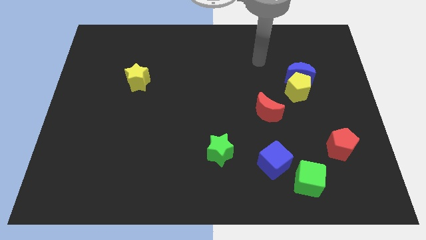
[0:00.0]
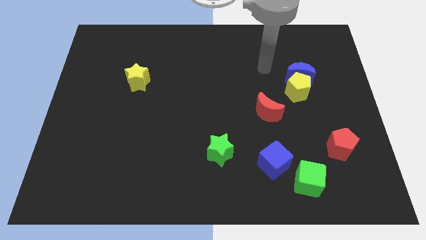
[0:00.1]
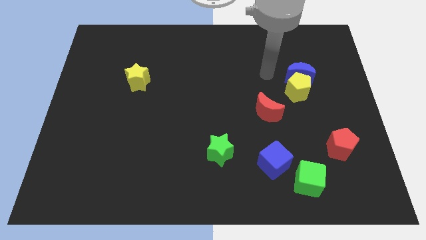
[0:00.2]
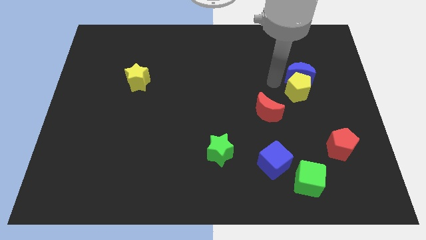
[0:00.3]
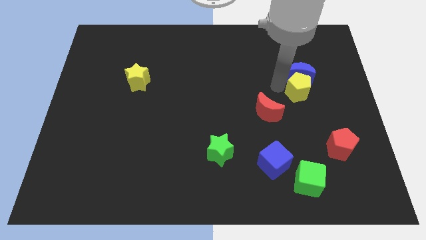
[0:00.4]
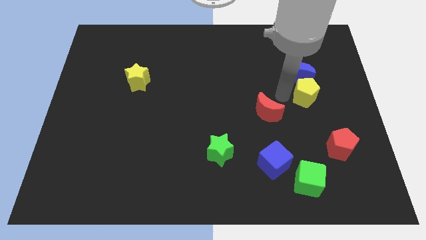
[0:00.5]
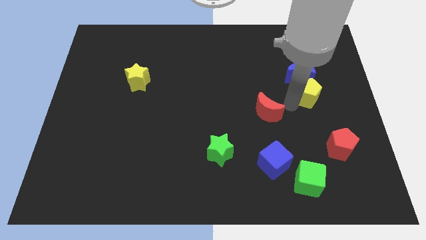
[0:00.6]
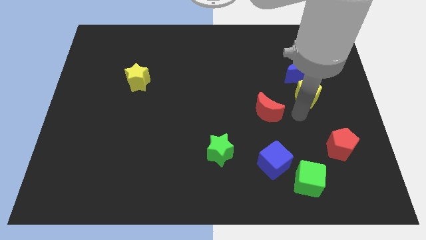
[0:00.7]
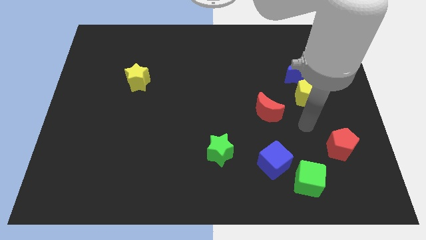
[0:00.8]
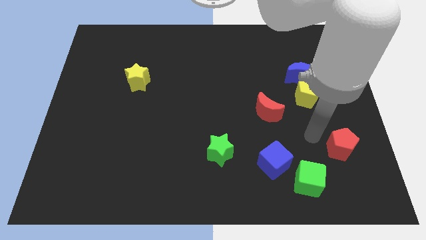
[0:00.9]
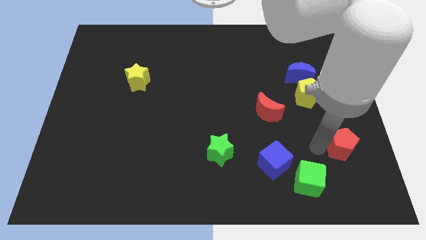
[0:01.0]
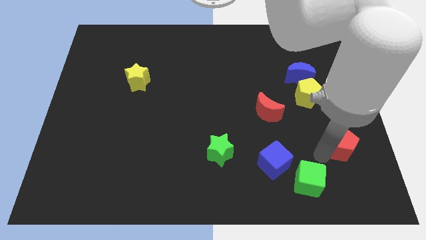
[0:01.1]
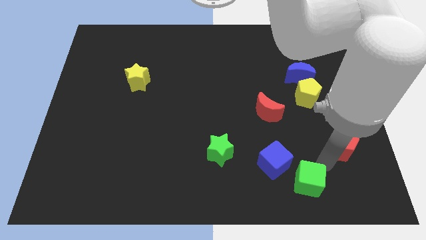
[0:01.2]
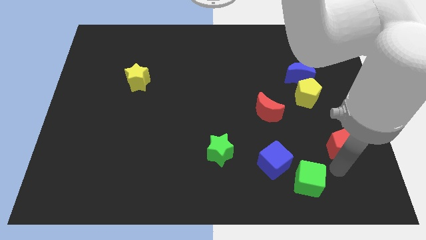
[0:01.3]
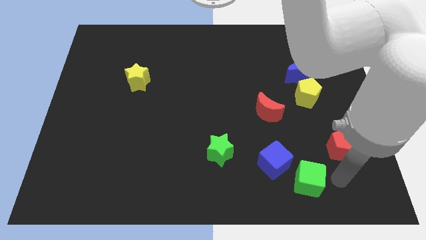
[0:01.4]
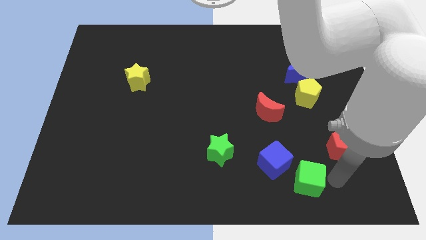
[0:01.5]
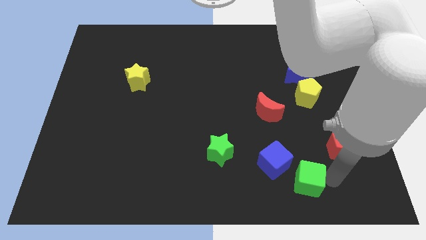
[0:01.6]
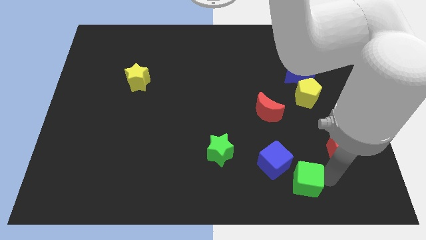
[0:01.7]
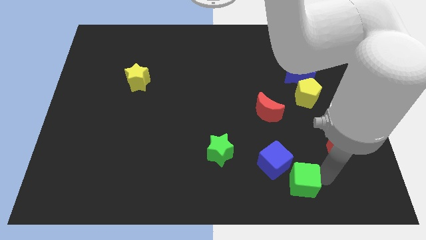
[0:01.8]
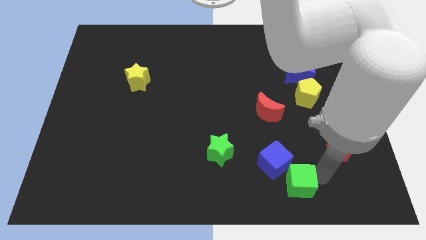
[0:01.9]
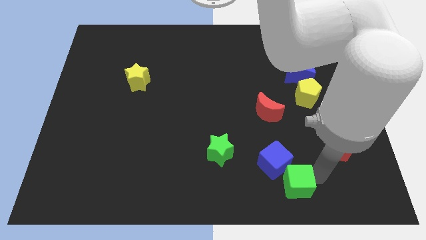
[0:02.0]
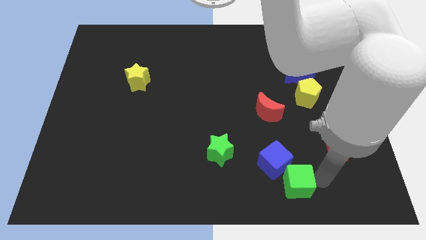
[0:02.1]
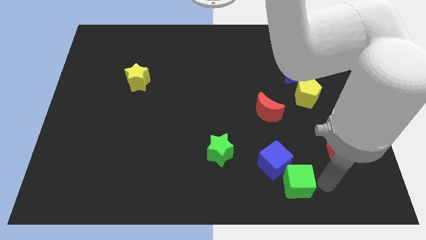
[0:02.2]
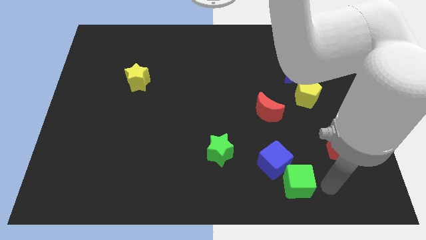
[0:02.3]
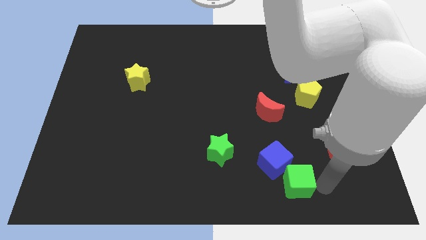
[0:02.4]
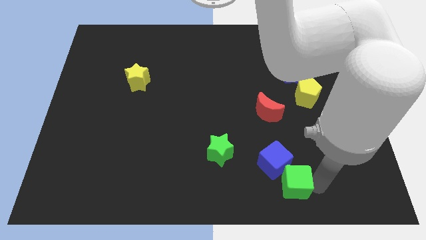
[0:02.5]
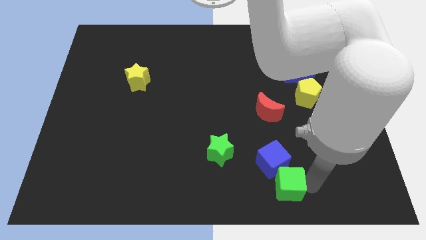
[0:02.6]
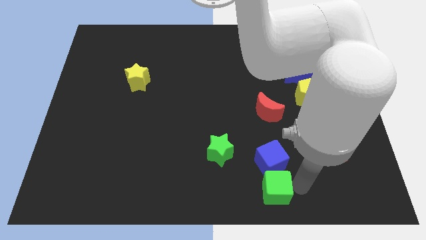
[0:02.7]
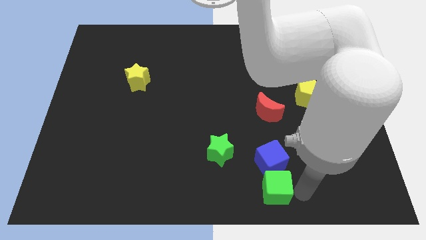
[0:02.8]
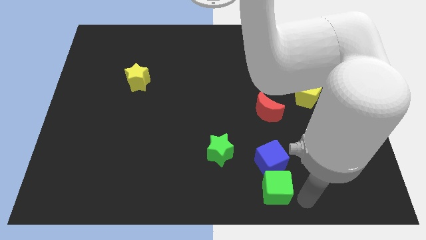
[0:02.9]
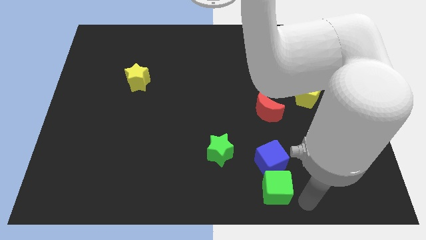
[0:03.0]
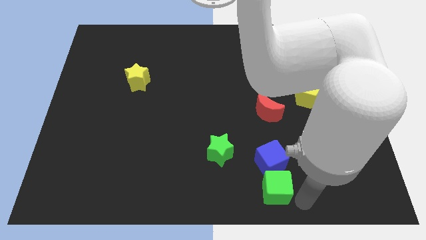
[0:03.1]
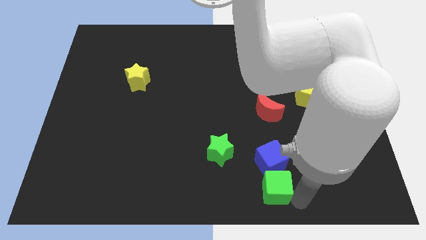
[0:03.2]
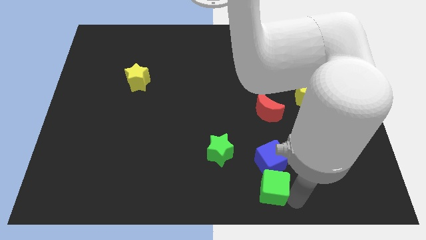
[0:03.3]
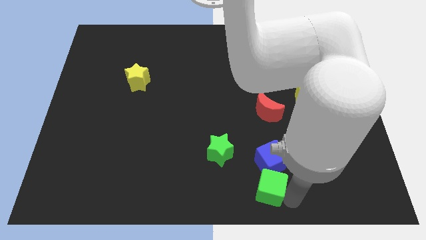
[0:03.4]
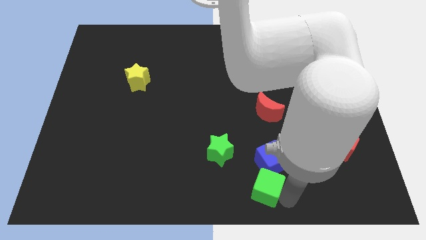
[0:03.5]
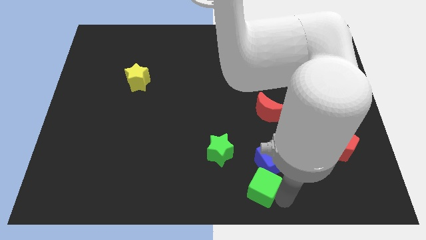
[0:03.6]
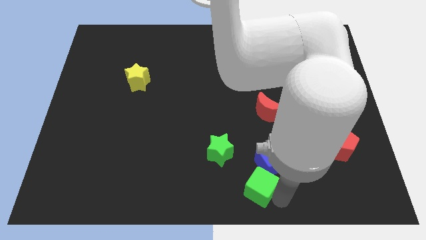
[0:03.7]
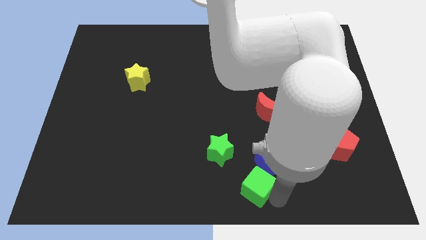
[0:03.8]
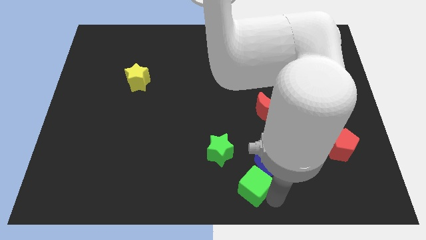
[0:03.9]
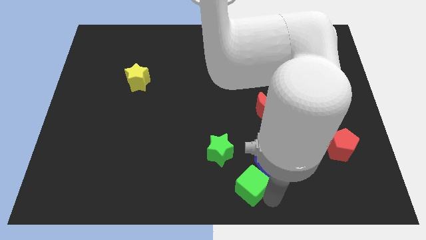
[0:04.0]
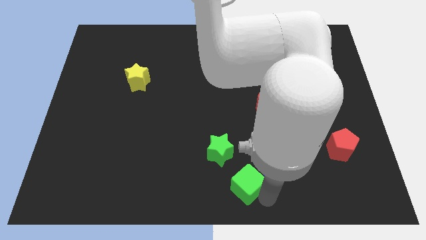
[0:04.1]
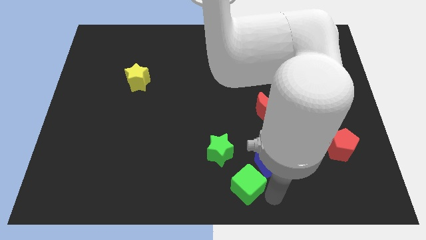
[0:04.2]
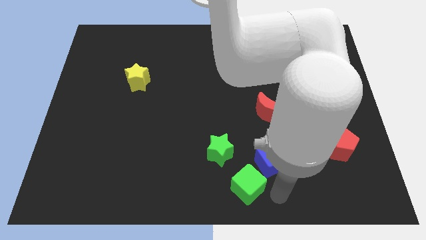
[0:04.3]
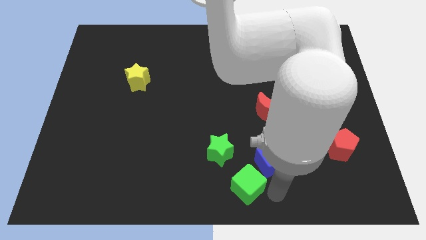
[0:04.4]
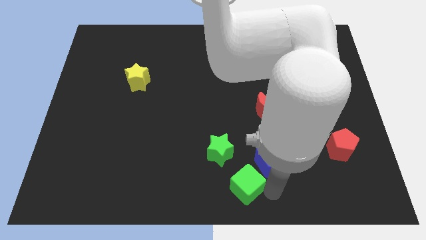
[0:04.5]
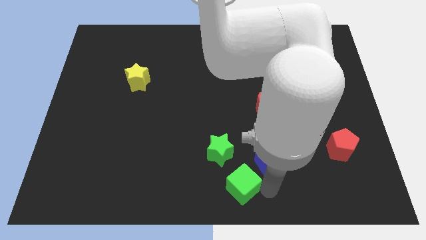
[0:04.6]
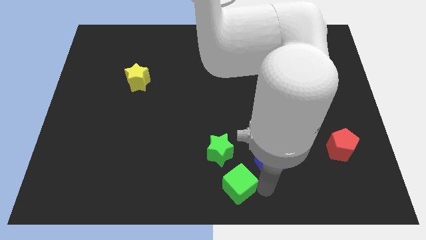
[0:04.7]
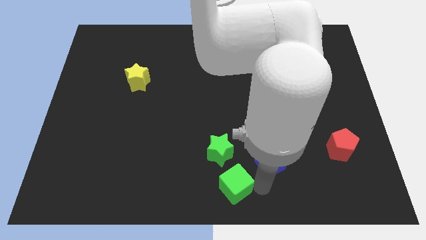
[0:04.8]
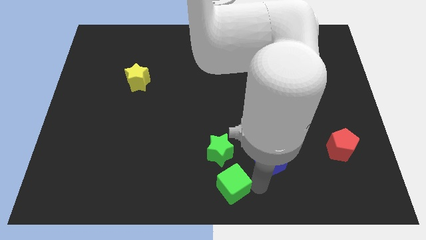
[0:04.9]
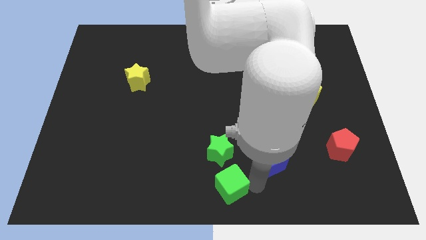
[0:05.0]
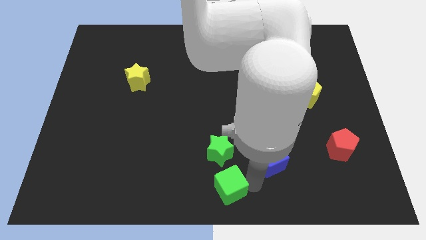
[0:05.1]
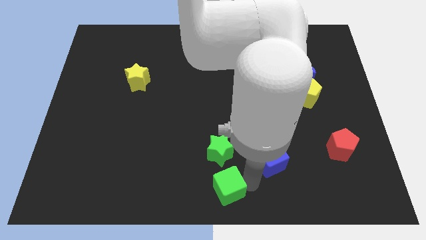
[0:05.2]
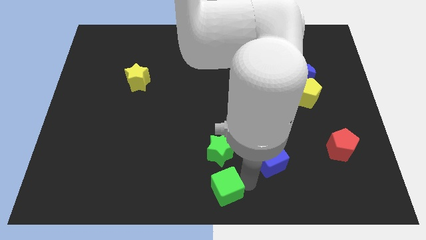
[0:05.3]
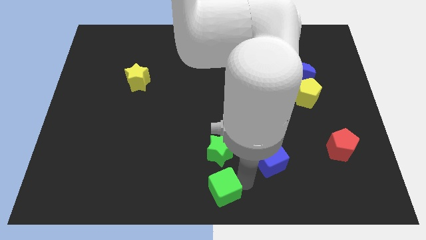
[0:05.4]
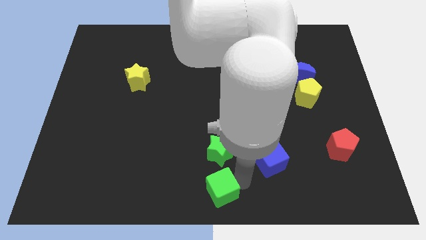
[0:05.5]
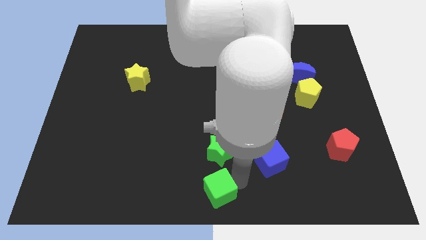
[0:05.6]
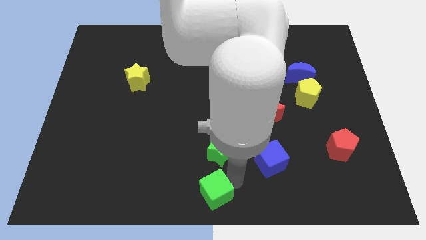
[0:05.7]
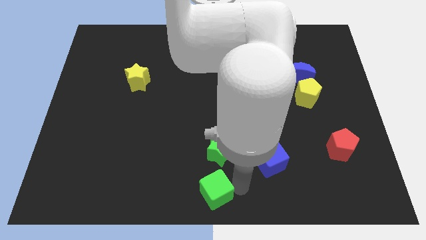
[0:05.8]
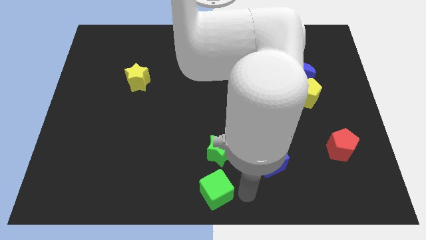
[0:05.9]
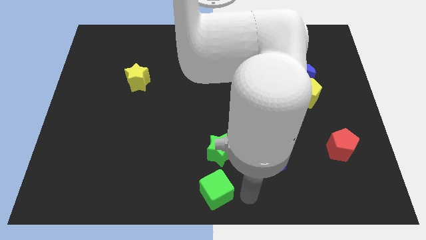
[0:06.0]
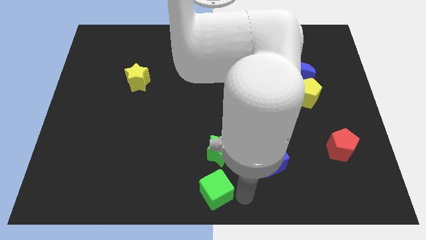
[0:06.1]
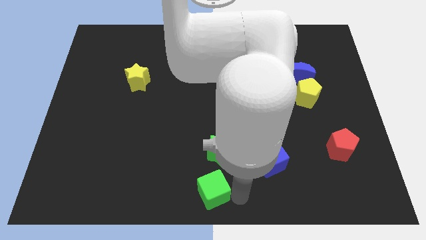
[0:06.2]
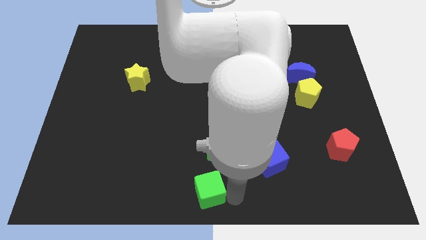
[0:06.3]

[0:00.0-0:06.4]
move the green cube to the left

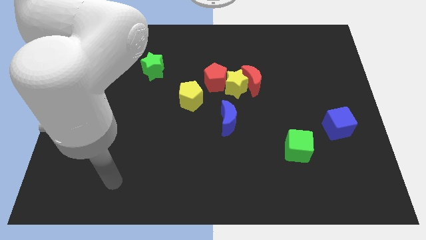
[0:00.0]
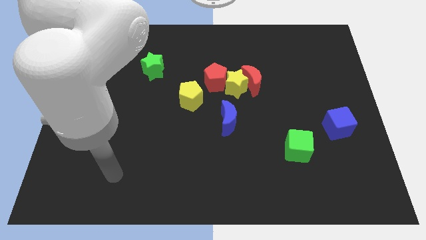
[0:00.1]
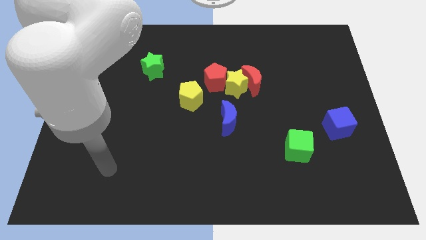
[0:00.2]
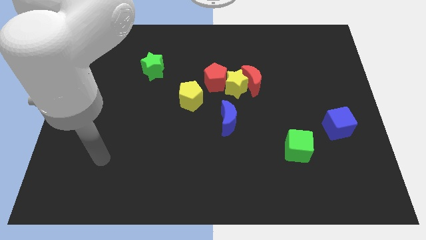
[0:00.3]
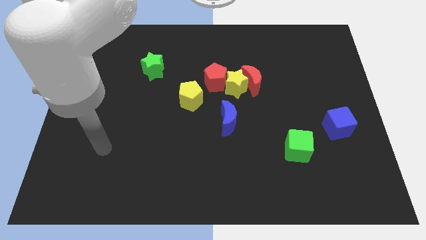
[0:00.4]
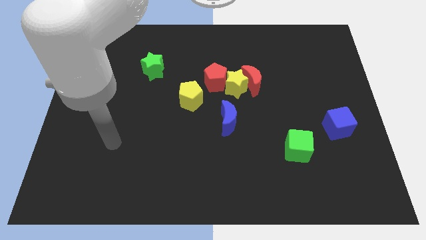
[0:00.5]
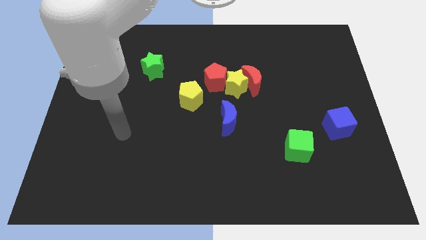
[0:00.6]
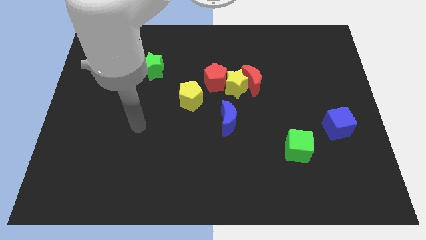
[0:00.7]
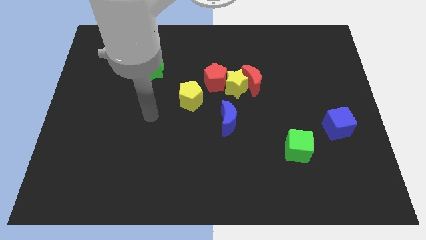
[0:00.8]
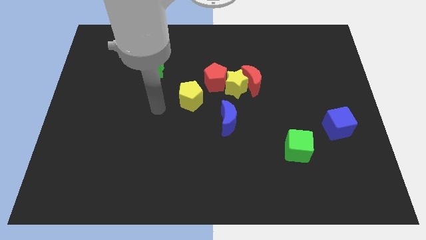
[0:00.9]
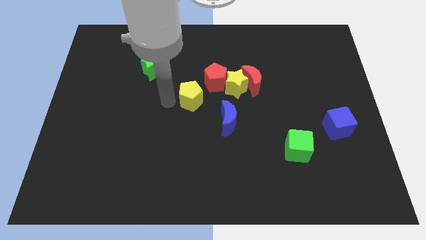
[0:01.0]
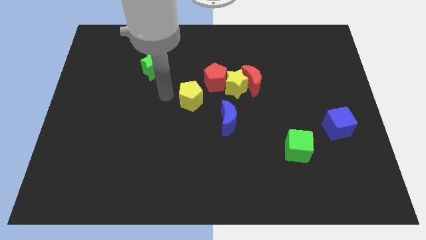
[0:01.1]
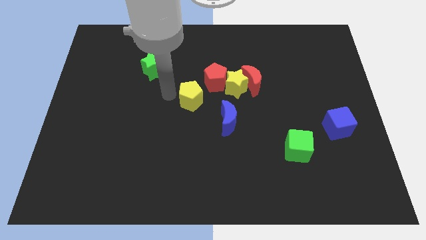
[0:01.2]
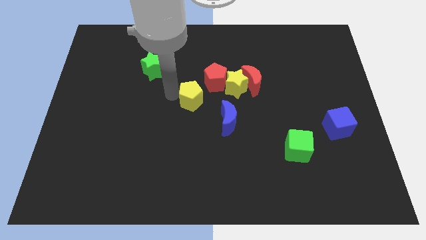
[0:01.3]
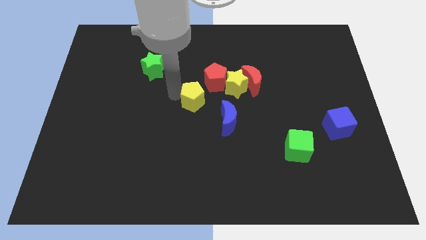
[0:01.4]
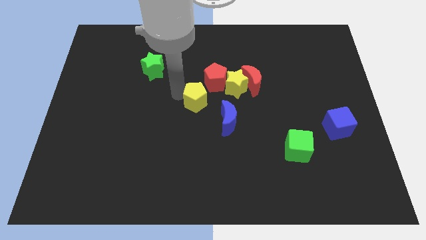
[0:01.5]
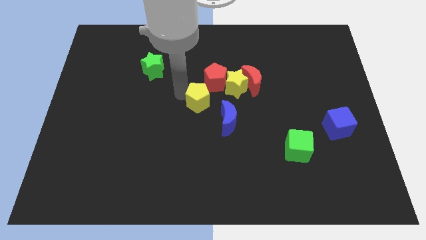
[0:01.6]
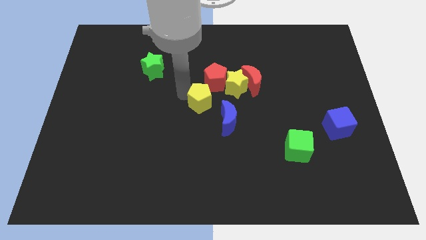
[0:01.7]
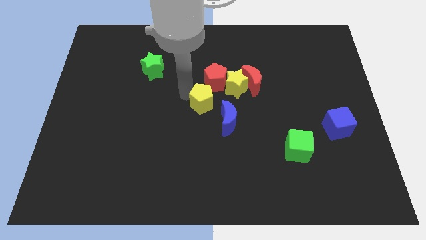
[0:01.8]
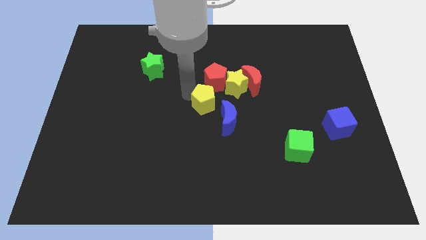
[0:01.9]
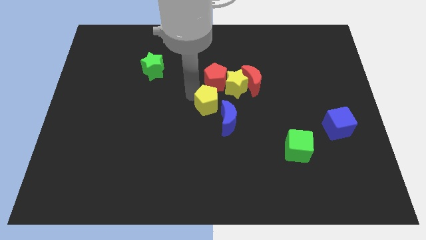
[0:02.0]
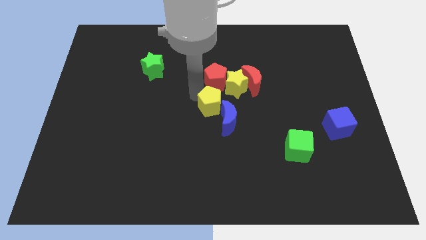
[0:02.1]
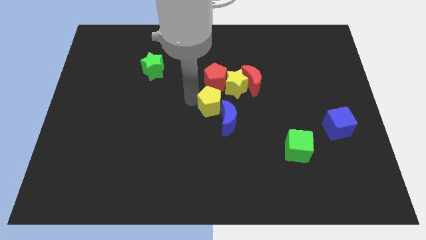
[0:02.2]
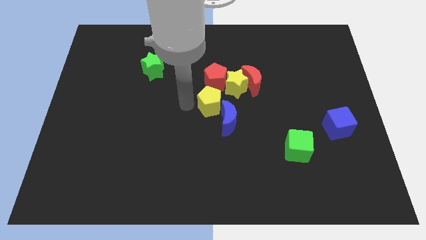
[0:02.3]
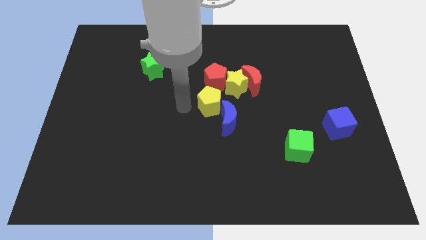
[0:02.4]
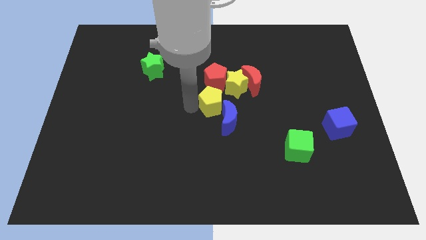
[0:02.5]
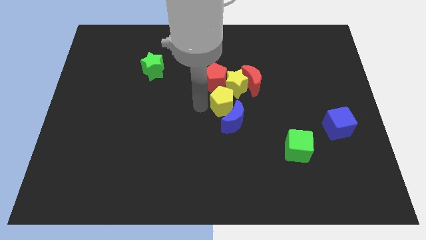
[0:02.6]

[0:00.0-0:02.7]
slightly push the yellow pentagon right
